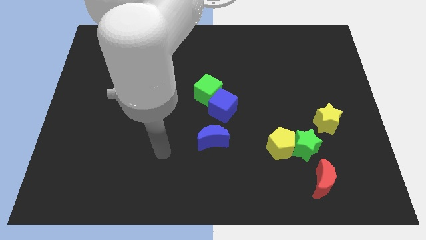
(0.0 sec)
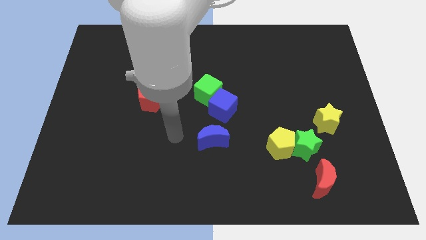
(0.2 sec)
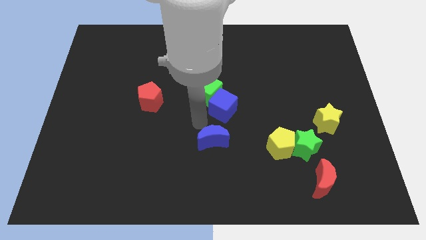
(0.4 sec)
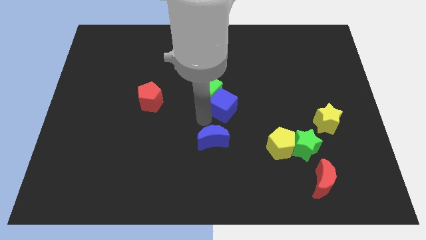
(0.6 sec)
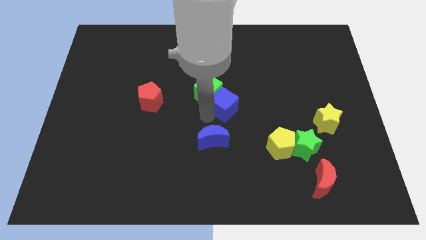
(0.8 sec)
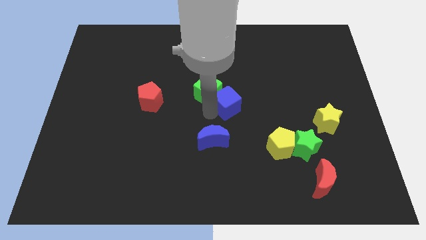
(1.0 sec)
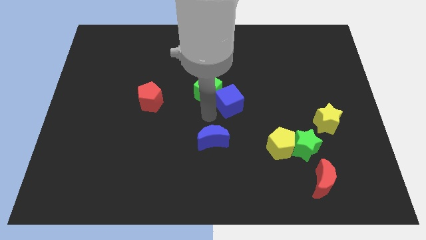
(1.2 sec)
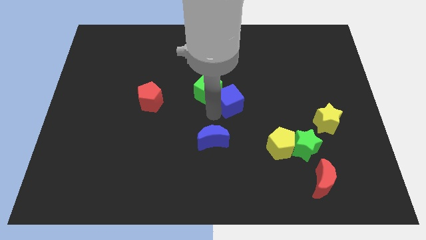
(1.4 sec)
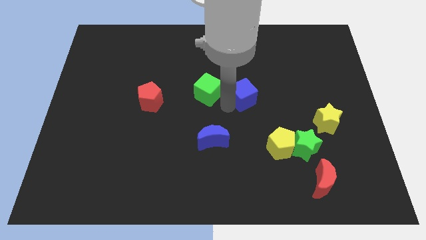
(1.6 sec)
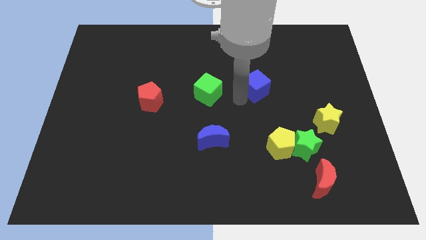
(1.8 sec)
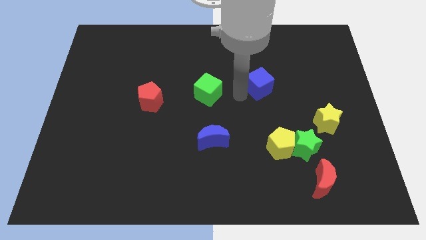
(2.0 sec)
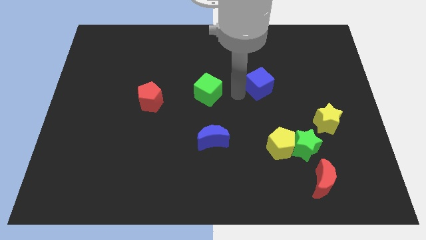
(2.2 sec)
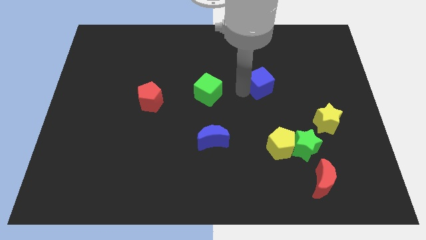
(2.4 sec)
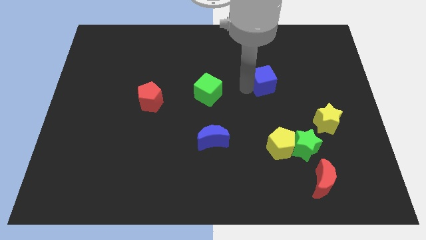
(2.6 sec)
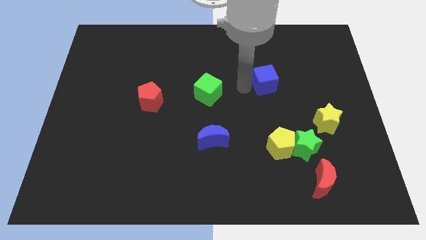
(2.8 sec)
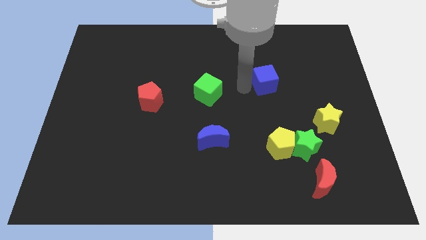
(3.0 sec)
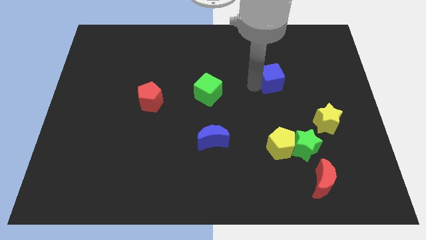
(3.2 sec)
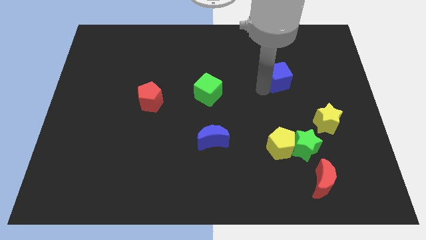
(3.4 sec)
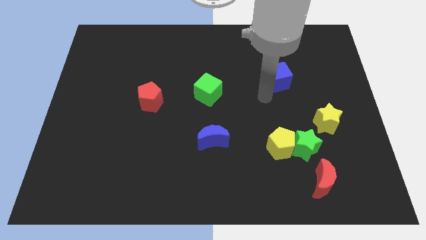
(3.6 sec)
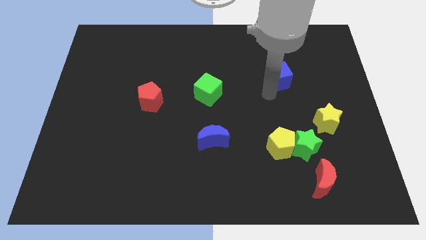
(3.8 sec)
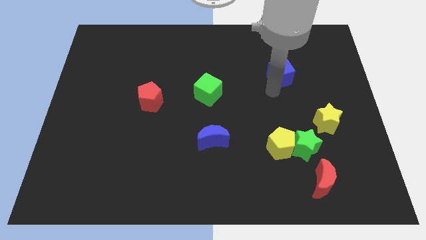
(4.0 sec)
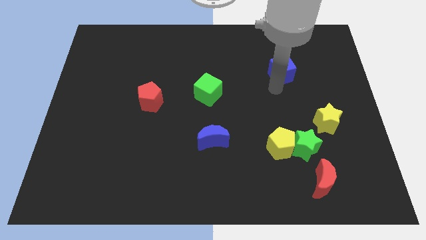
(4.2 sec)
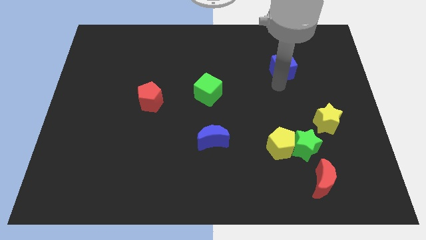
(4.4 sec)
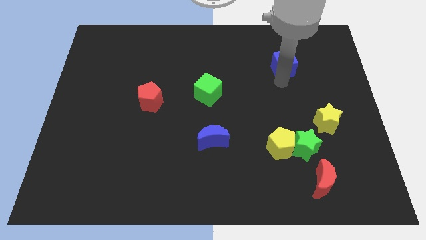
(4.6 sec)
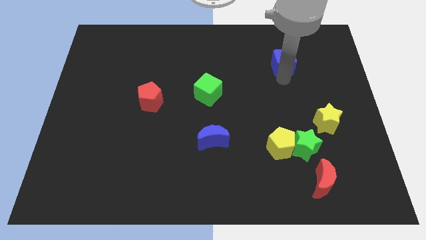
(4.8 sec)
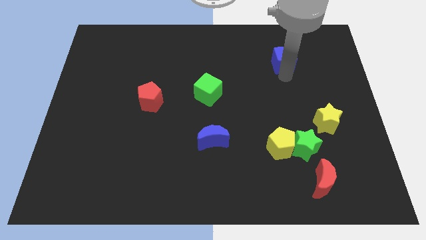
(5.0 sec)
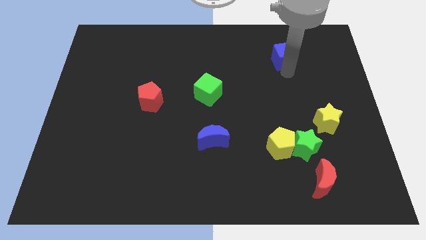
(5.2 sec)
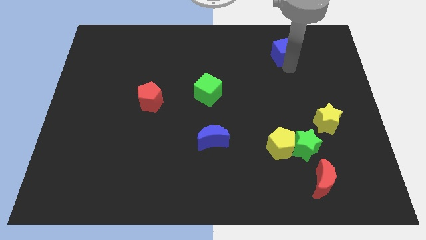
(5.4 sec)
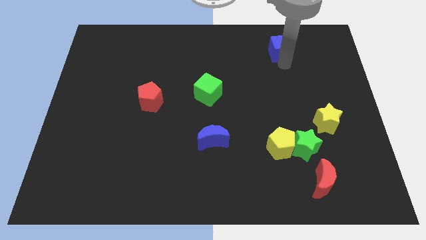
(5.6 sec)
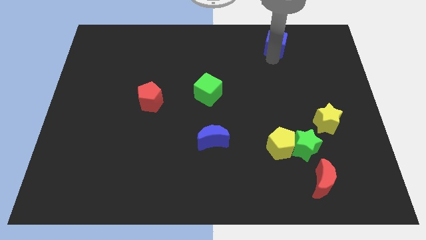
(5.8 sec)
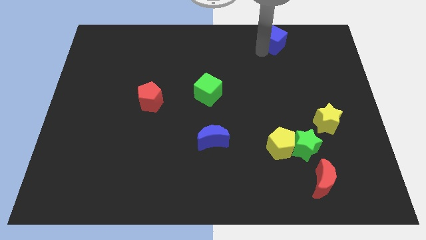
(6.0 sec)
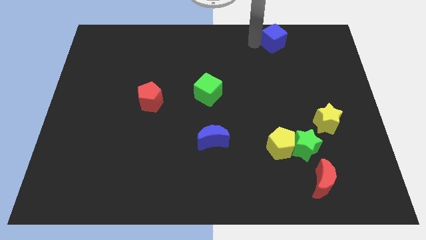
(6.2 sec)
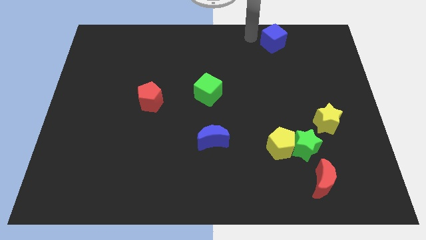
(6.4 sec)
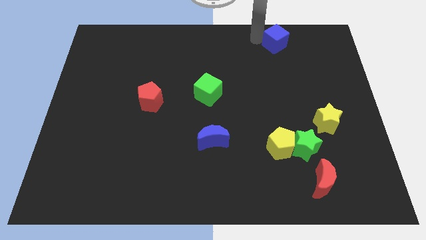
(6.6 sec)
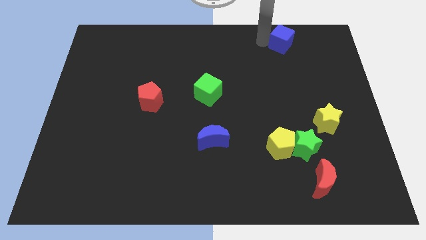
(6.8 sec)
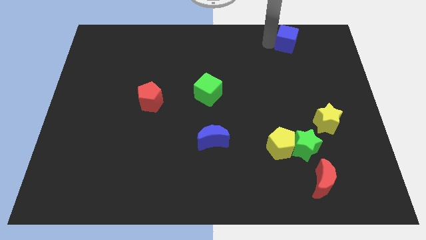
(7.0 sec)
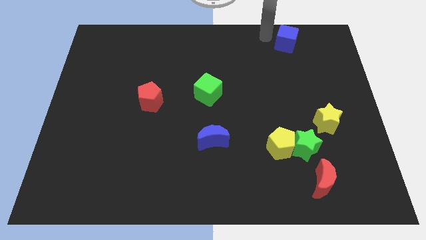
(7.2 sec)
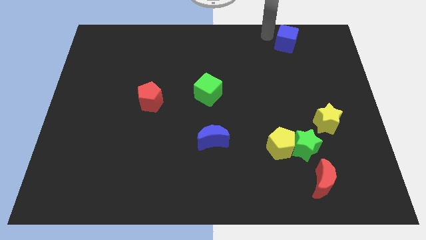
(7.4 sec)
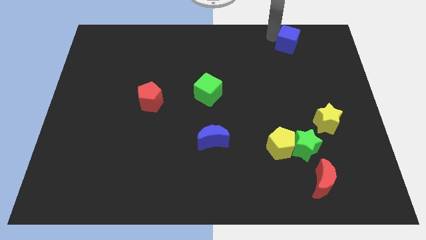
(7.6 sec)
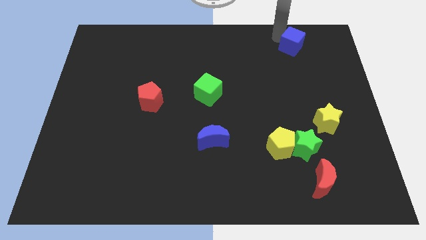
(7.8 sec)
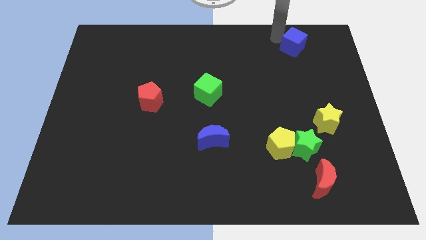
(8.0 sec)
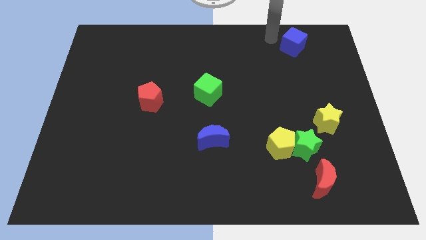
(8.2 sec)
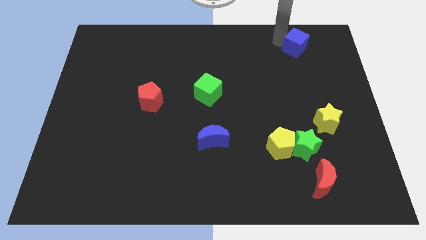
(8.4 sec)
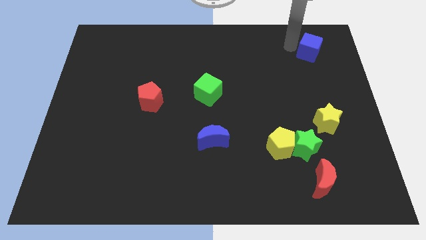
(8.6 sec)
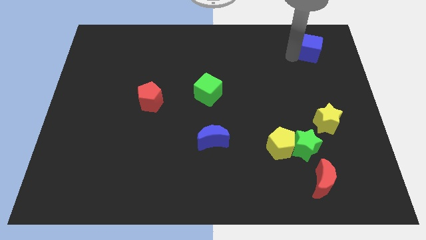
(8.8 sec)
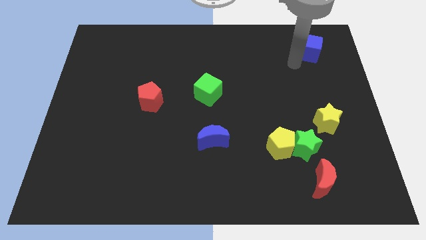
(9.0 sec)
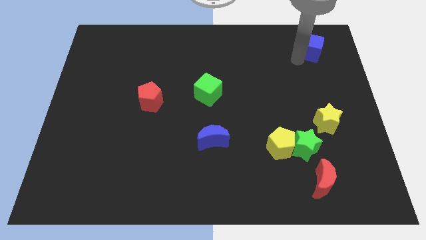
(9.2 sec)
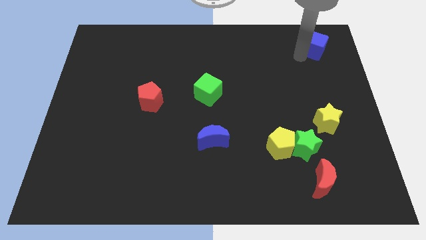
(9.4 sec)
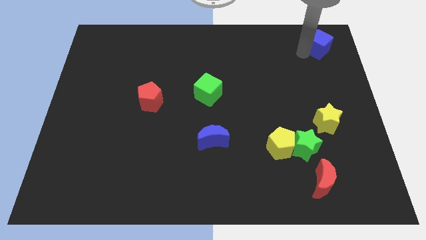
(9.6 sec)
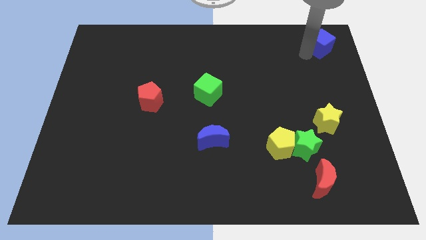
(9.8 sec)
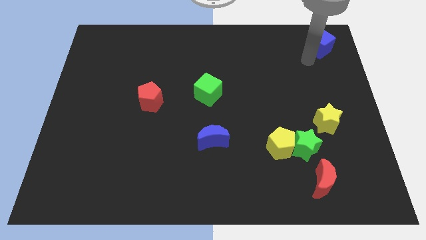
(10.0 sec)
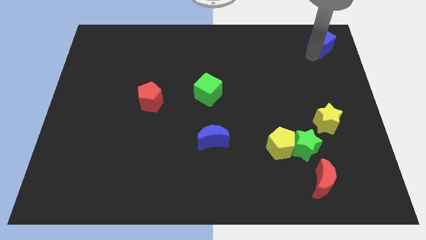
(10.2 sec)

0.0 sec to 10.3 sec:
push the blue cube to the top right of the board

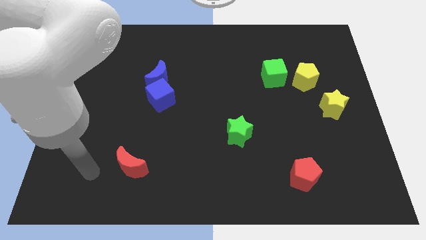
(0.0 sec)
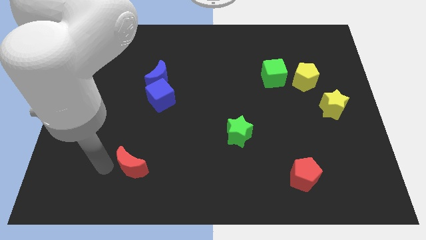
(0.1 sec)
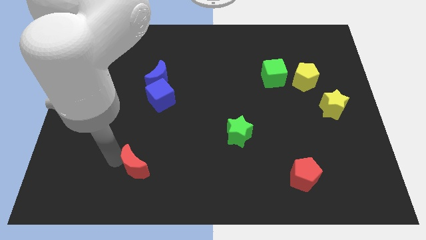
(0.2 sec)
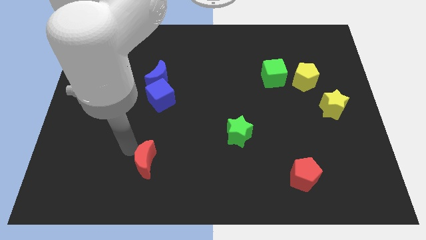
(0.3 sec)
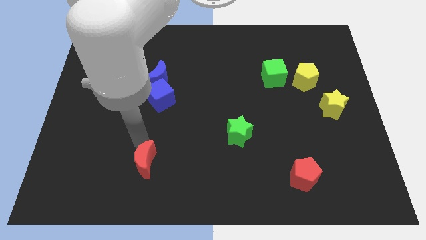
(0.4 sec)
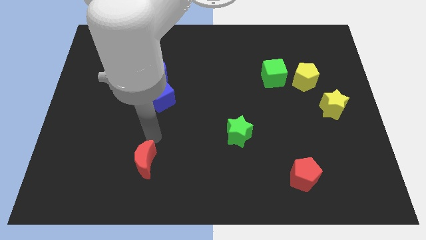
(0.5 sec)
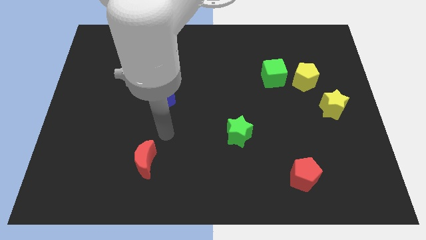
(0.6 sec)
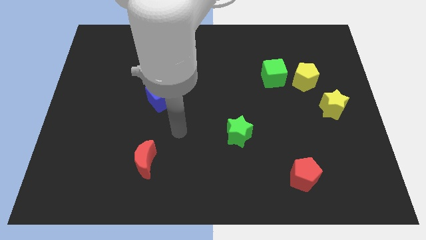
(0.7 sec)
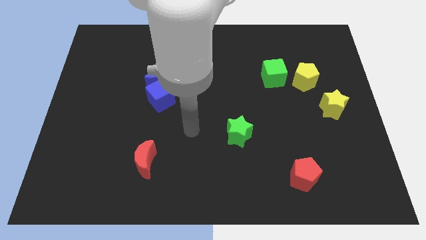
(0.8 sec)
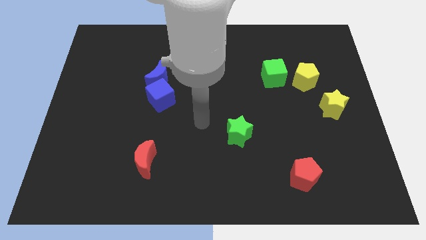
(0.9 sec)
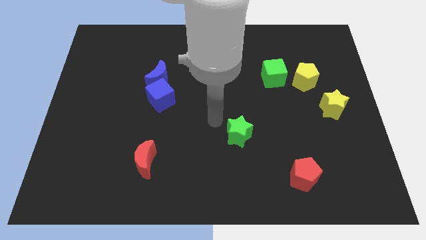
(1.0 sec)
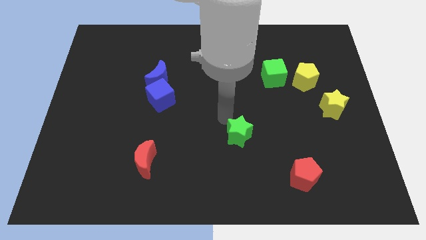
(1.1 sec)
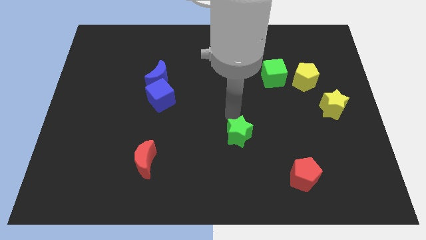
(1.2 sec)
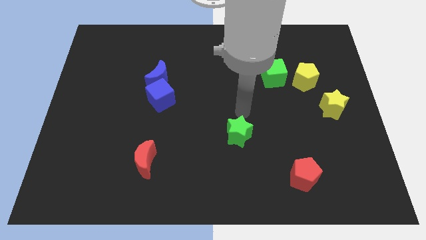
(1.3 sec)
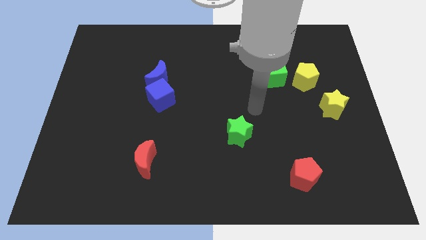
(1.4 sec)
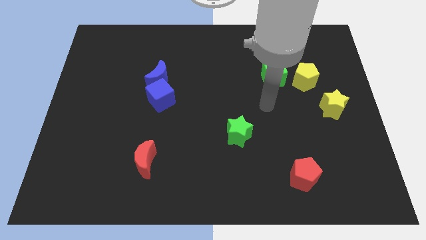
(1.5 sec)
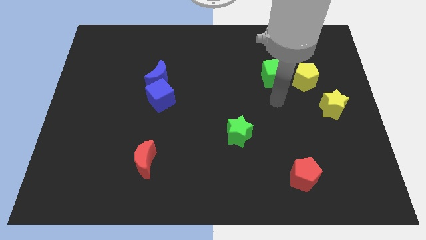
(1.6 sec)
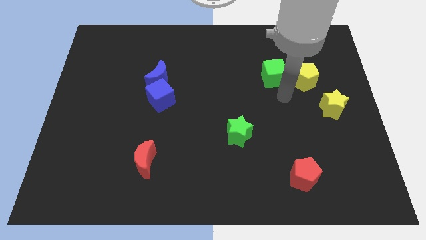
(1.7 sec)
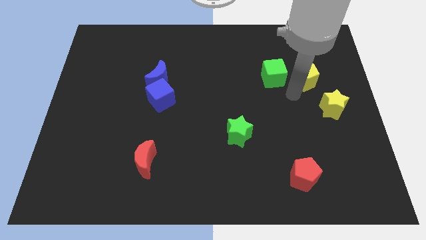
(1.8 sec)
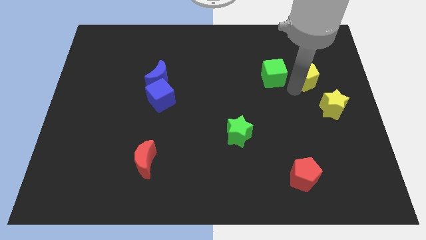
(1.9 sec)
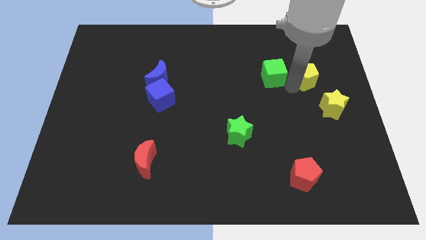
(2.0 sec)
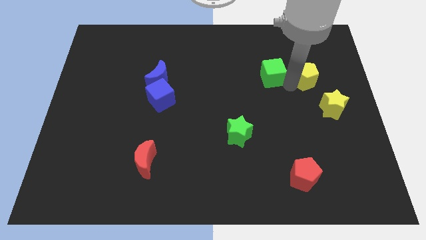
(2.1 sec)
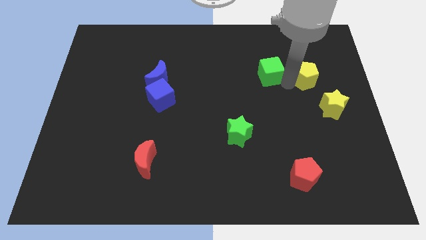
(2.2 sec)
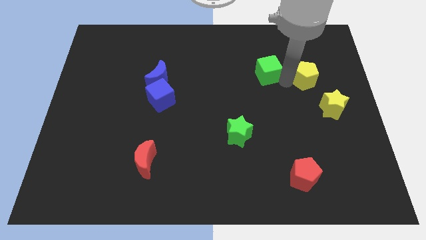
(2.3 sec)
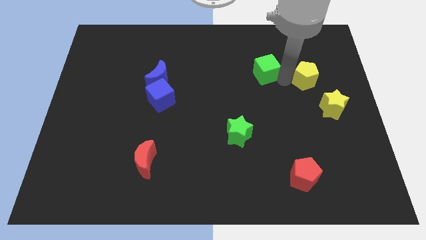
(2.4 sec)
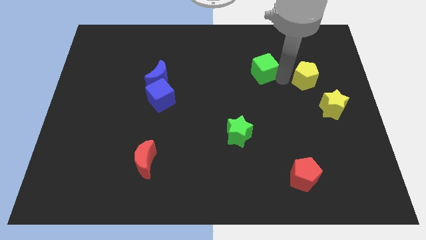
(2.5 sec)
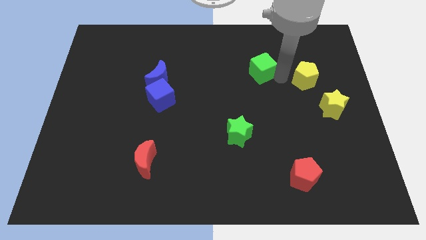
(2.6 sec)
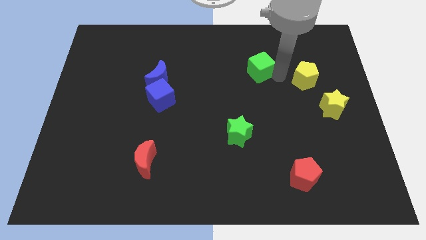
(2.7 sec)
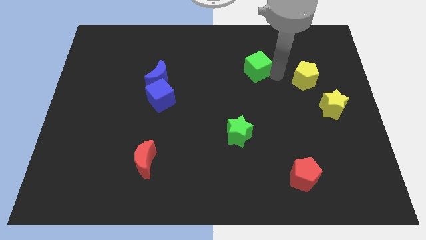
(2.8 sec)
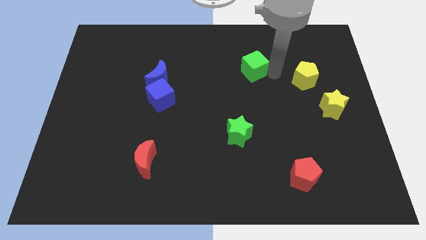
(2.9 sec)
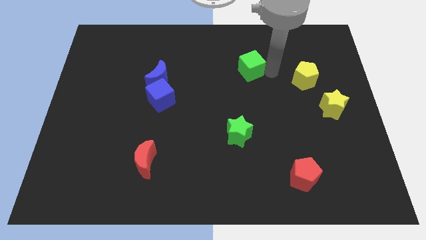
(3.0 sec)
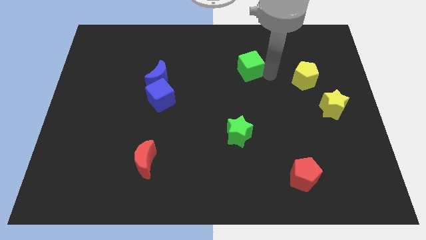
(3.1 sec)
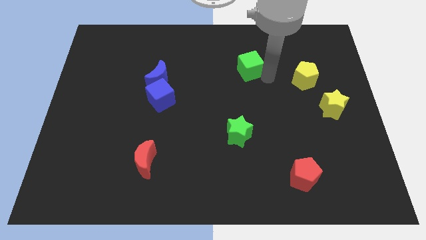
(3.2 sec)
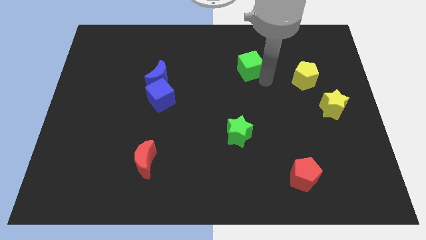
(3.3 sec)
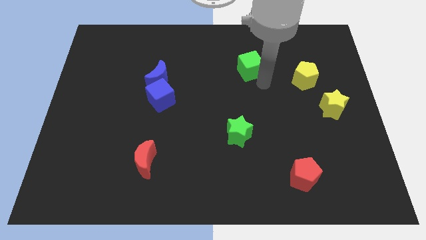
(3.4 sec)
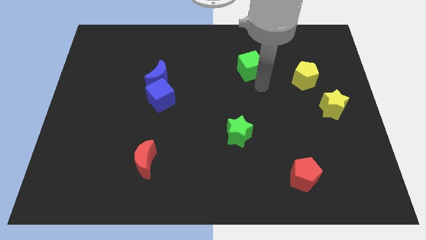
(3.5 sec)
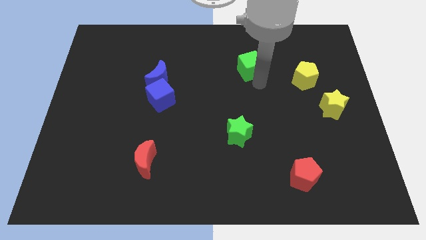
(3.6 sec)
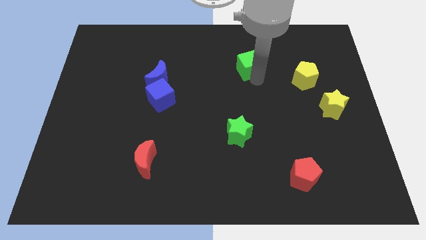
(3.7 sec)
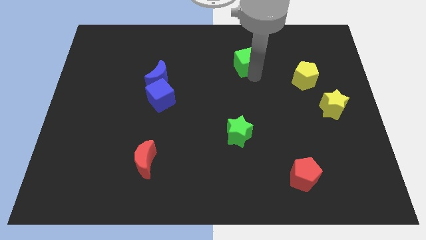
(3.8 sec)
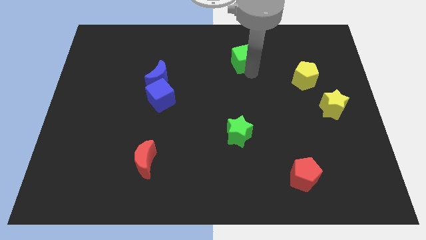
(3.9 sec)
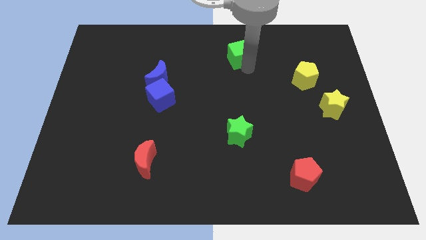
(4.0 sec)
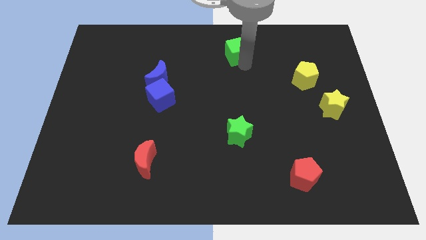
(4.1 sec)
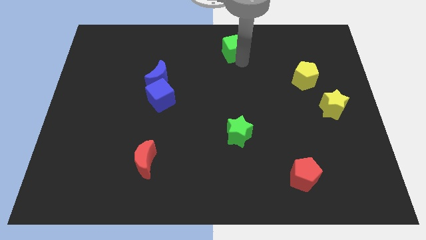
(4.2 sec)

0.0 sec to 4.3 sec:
put the green cube to the towards your base
